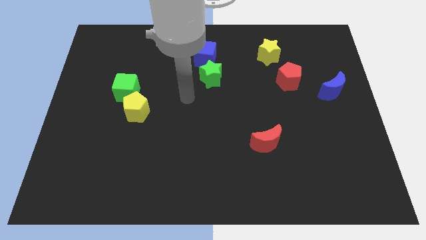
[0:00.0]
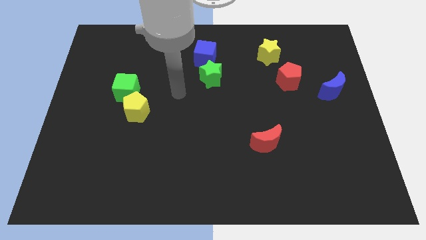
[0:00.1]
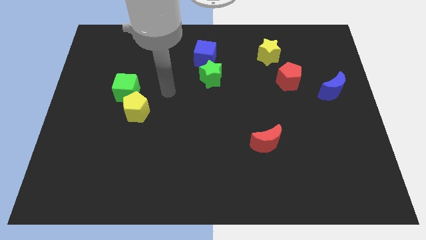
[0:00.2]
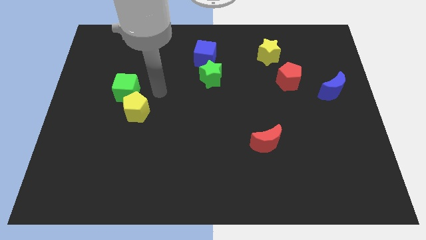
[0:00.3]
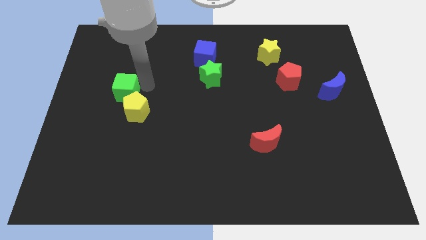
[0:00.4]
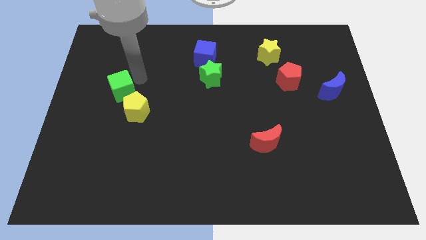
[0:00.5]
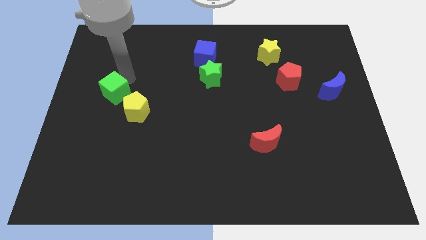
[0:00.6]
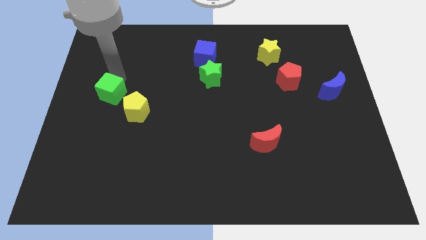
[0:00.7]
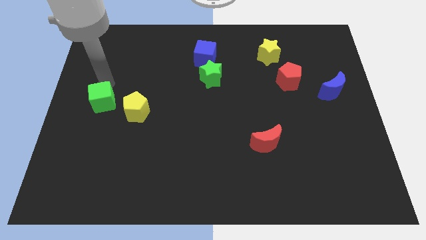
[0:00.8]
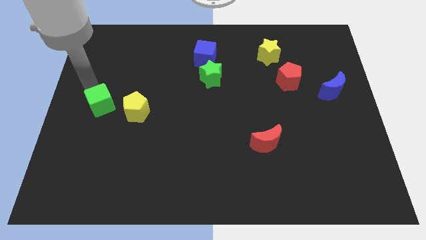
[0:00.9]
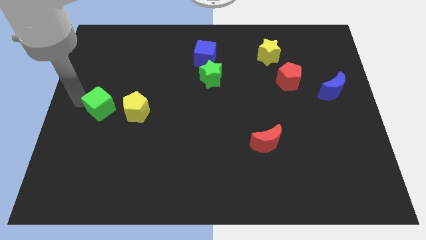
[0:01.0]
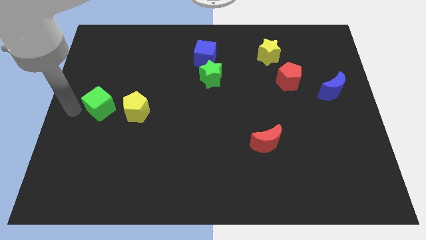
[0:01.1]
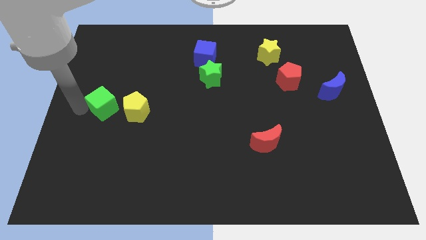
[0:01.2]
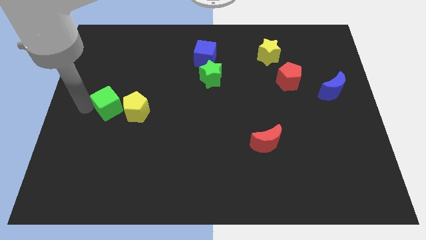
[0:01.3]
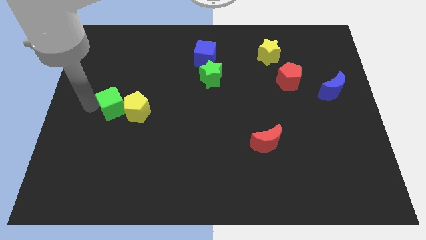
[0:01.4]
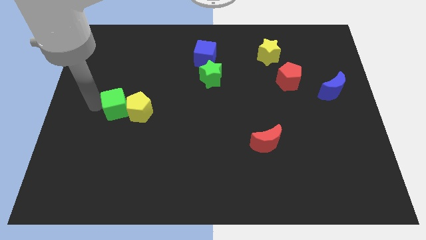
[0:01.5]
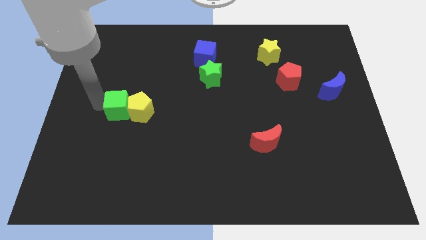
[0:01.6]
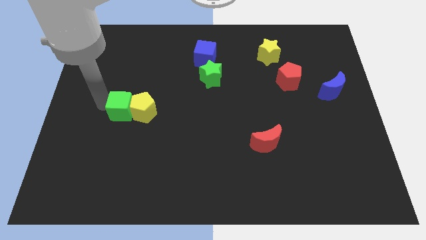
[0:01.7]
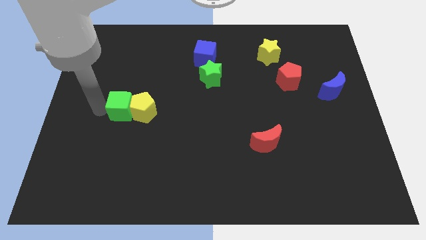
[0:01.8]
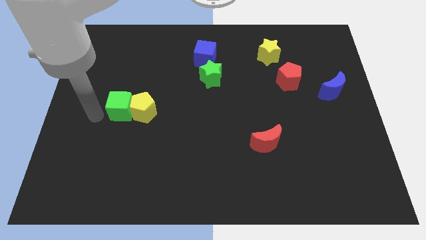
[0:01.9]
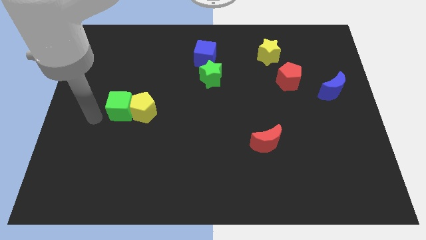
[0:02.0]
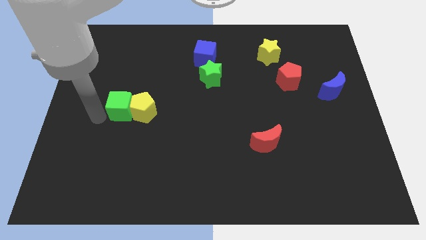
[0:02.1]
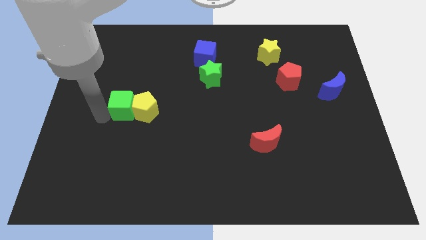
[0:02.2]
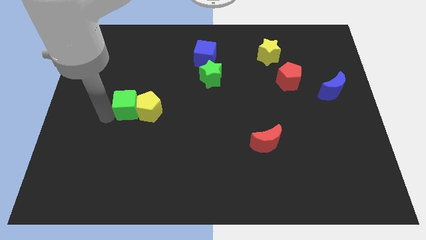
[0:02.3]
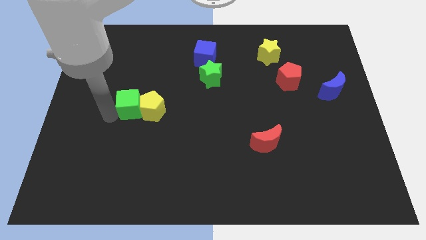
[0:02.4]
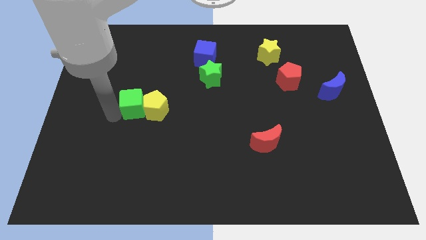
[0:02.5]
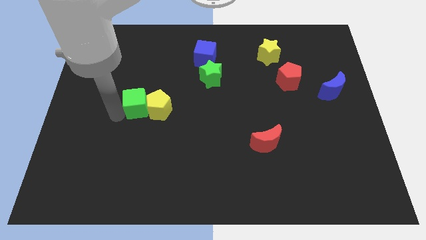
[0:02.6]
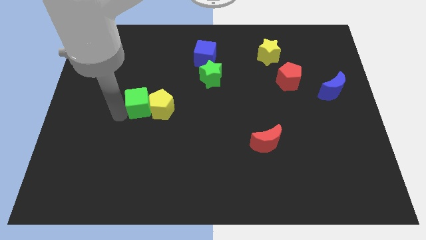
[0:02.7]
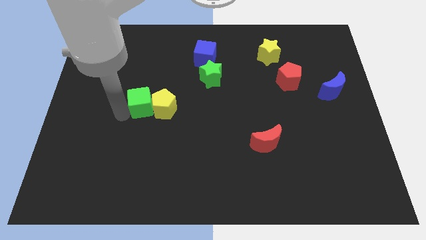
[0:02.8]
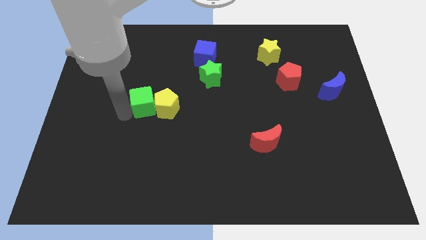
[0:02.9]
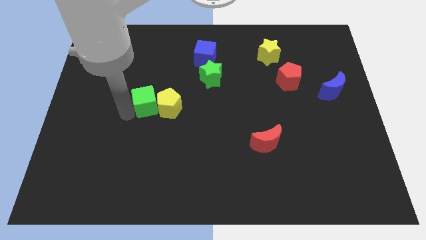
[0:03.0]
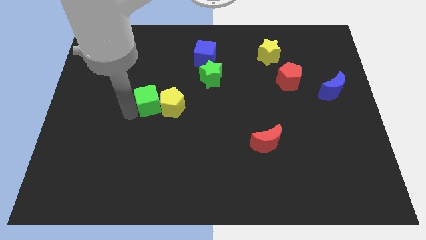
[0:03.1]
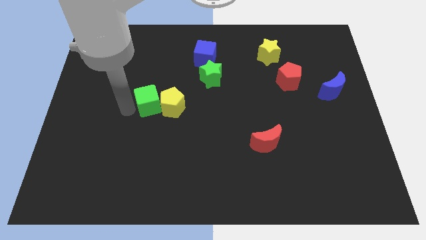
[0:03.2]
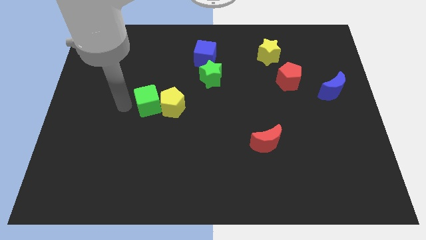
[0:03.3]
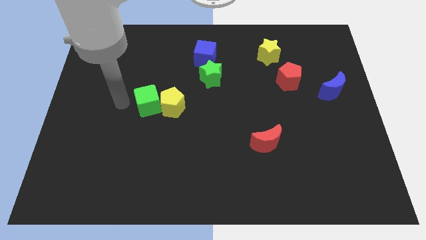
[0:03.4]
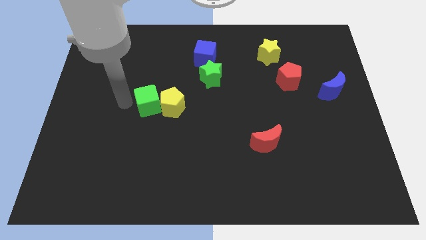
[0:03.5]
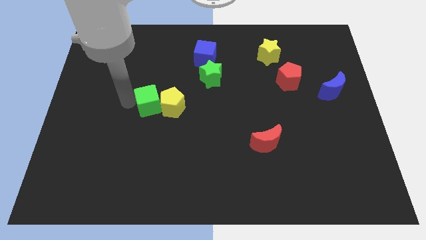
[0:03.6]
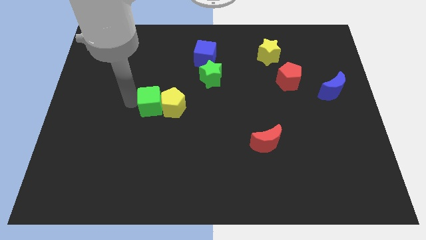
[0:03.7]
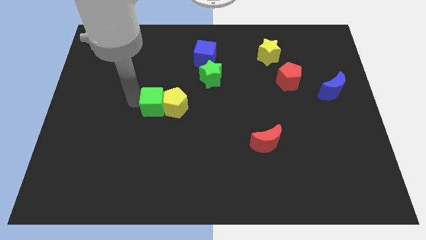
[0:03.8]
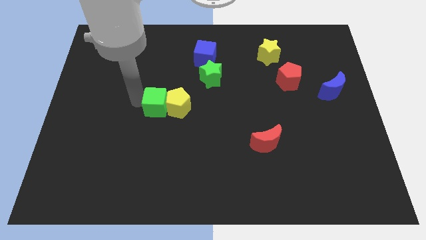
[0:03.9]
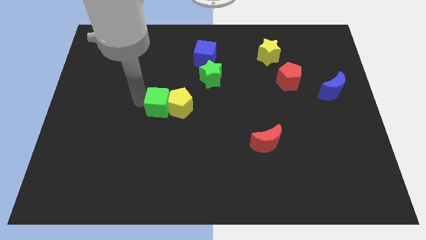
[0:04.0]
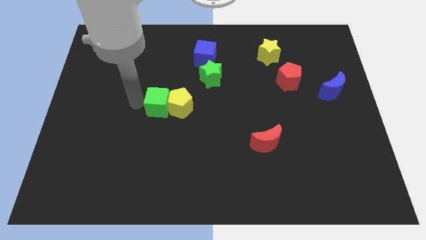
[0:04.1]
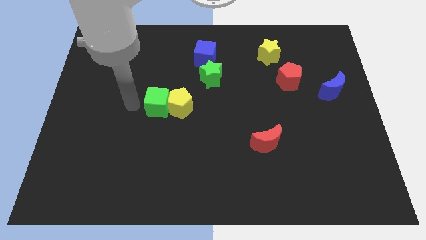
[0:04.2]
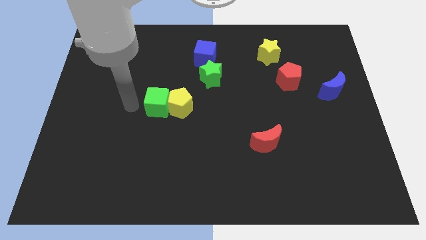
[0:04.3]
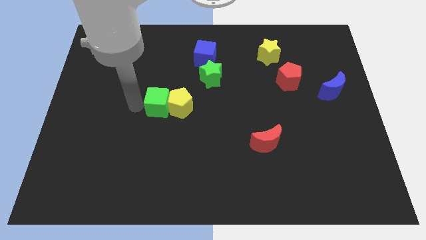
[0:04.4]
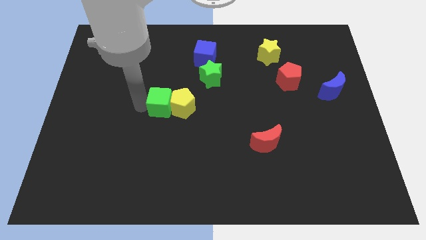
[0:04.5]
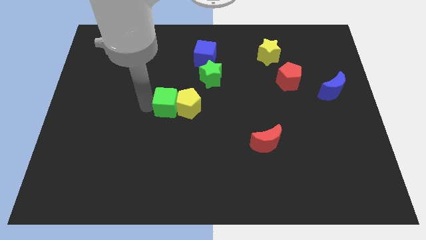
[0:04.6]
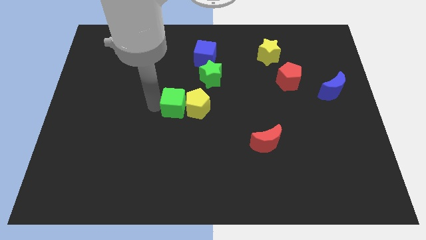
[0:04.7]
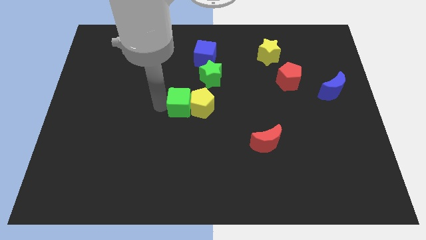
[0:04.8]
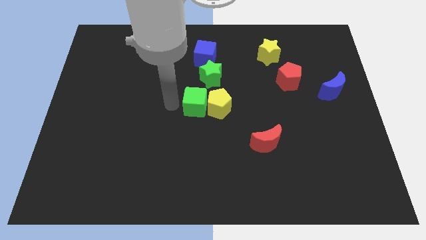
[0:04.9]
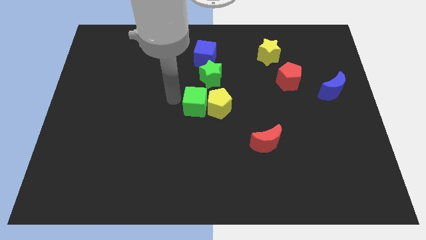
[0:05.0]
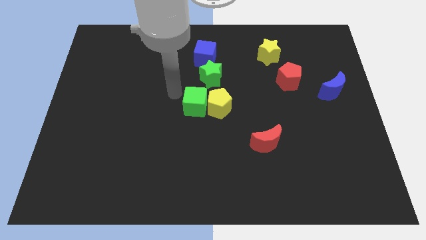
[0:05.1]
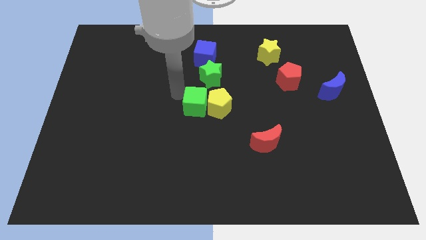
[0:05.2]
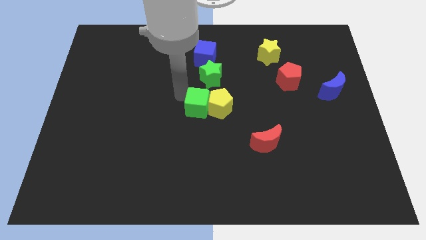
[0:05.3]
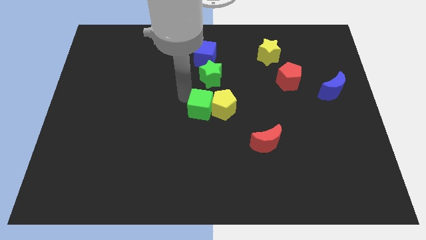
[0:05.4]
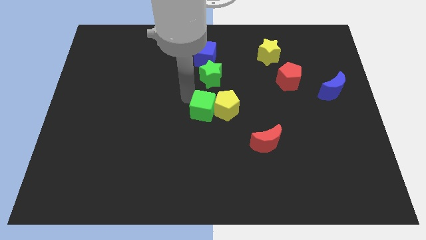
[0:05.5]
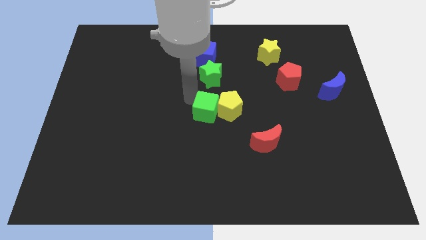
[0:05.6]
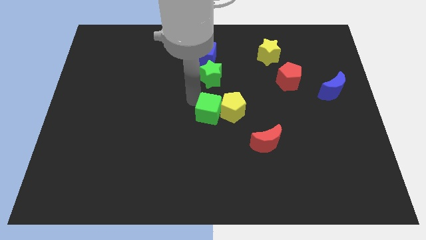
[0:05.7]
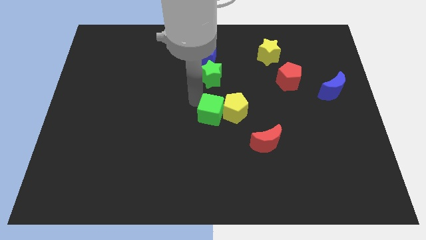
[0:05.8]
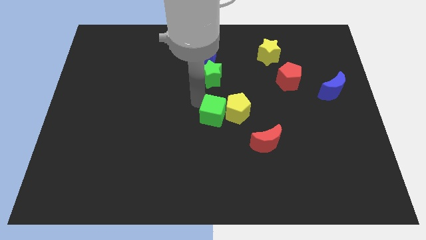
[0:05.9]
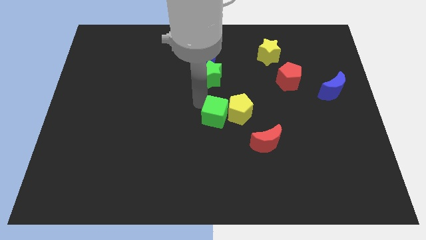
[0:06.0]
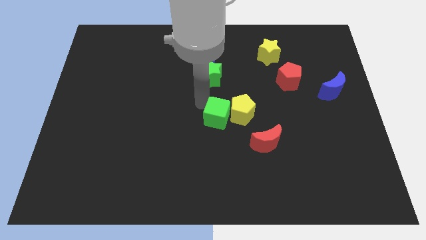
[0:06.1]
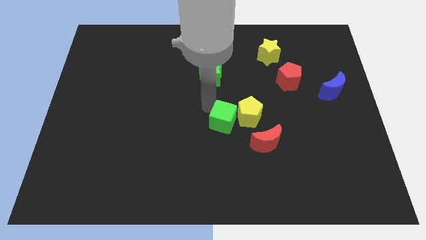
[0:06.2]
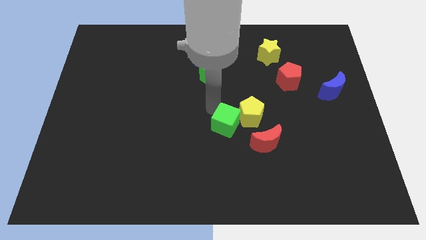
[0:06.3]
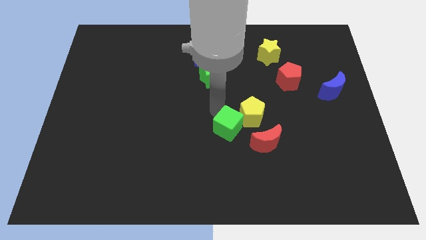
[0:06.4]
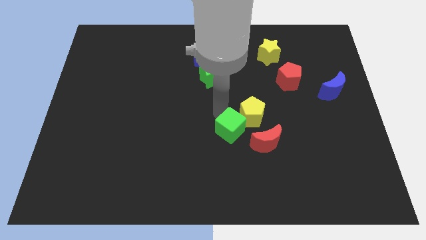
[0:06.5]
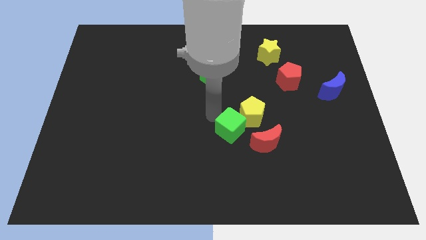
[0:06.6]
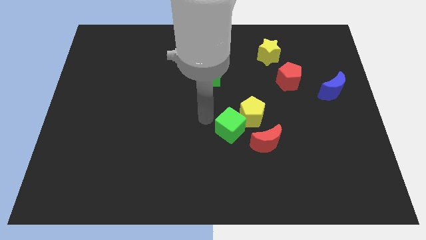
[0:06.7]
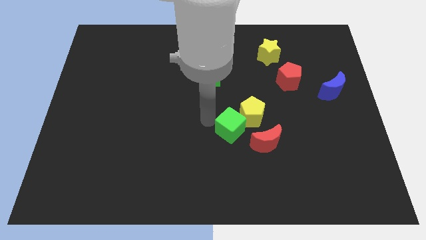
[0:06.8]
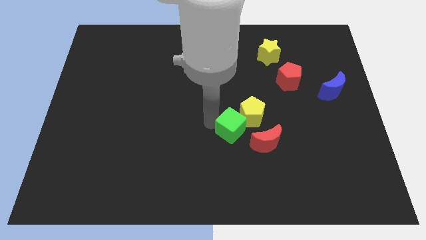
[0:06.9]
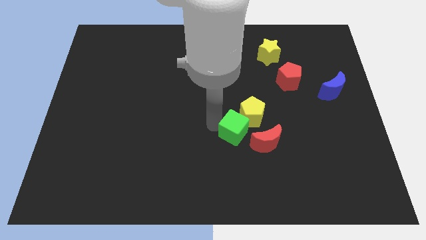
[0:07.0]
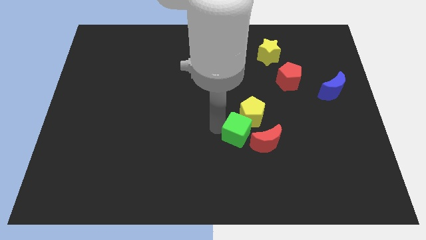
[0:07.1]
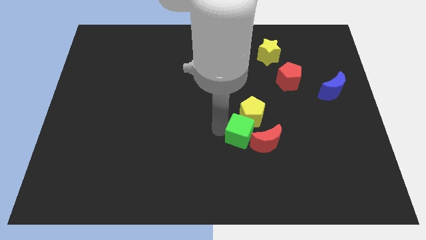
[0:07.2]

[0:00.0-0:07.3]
push the green cube to the red moon
